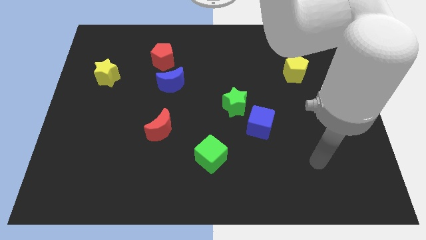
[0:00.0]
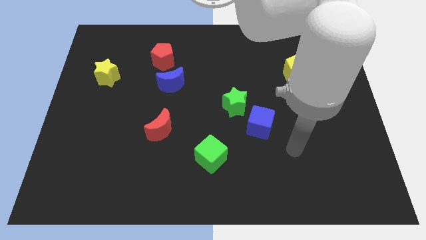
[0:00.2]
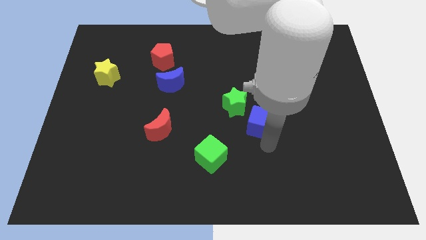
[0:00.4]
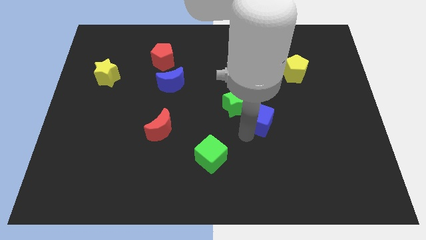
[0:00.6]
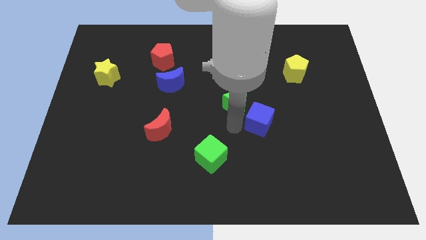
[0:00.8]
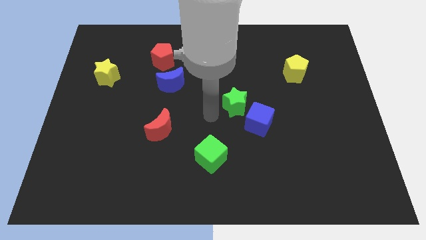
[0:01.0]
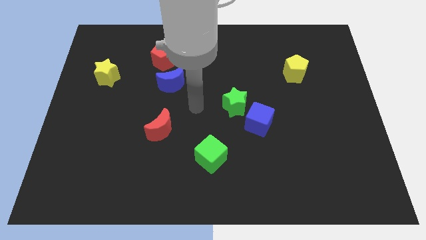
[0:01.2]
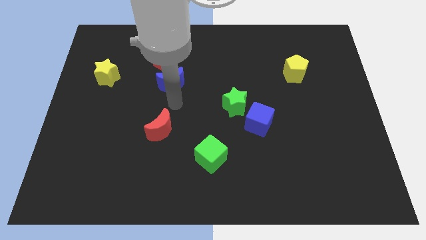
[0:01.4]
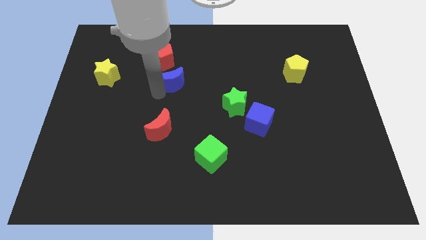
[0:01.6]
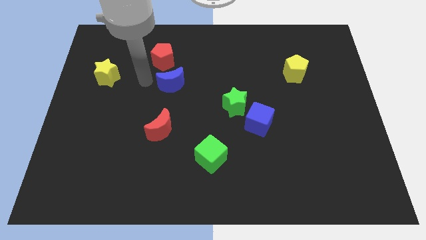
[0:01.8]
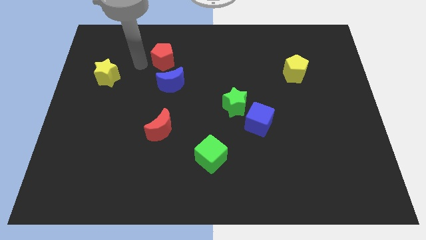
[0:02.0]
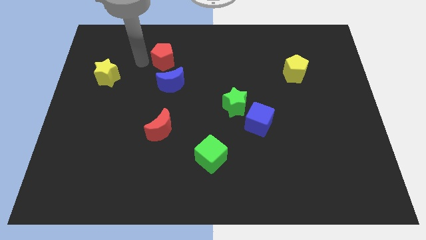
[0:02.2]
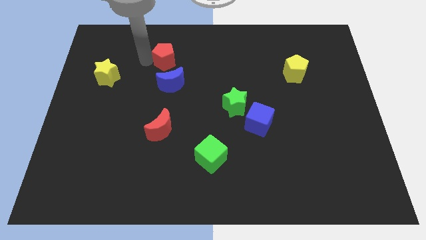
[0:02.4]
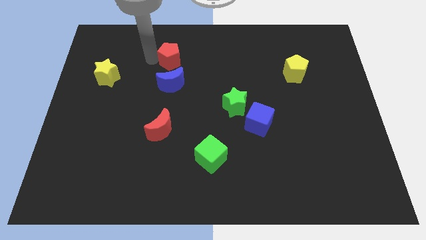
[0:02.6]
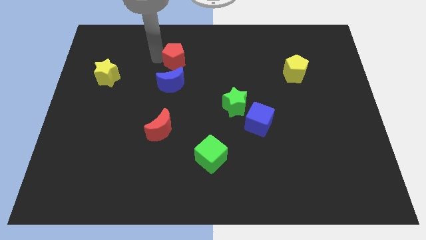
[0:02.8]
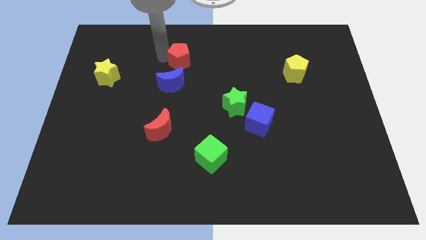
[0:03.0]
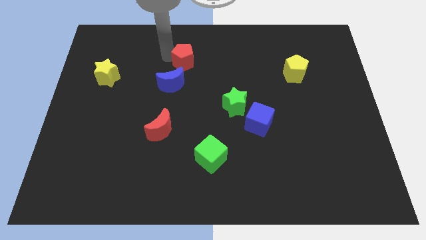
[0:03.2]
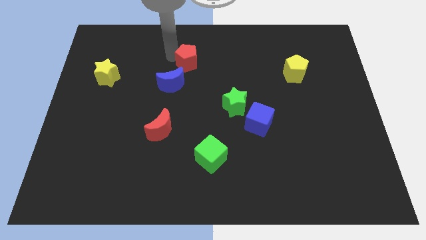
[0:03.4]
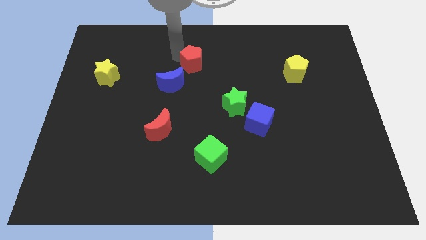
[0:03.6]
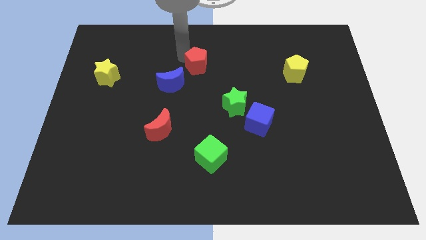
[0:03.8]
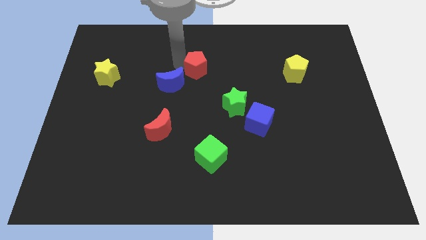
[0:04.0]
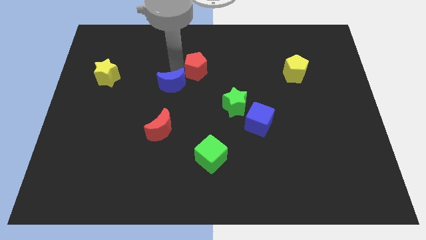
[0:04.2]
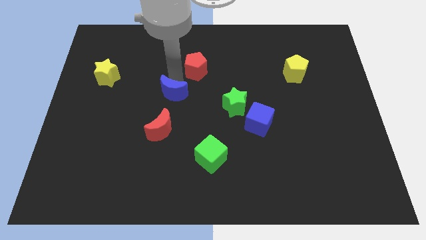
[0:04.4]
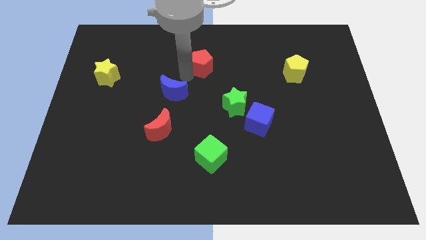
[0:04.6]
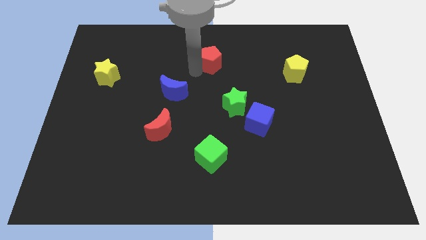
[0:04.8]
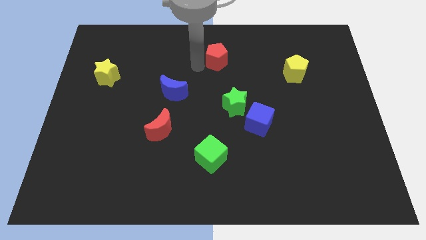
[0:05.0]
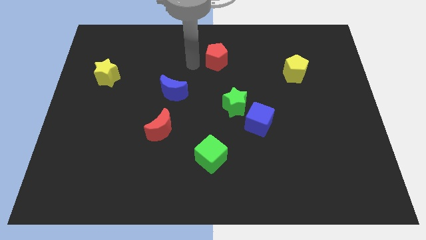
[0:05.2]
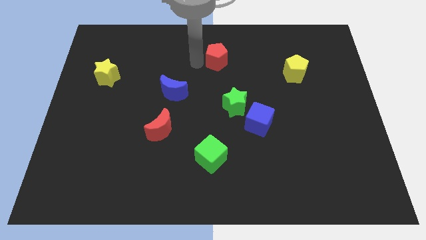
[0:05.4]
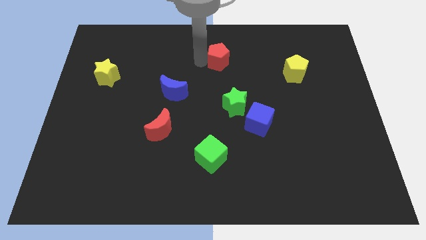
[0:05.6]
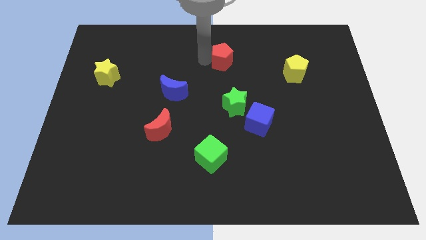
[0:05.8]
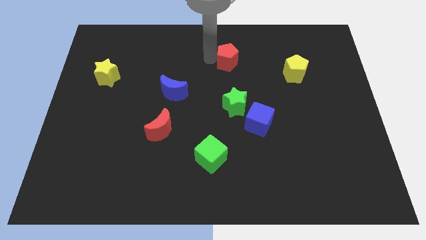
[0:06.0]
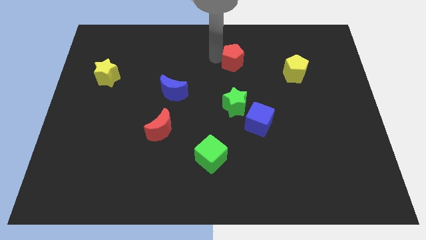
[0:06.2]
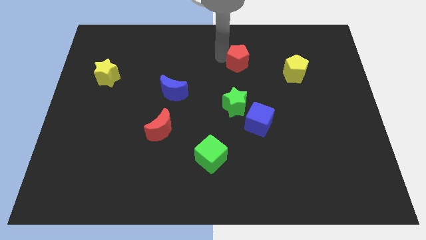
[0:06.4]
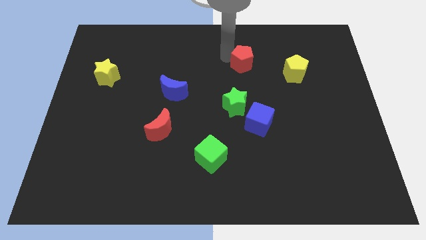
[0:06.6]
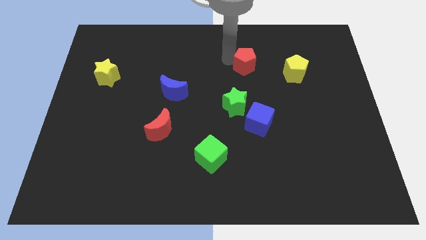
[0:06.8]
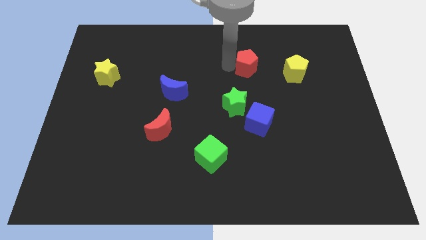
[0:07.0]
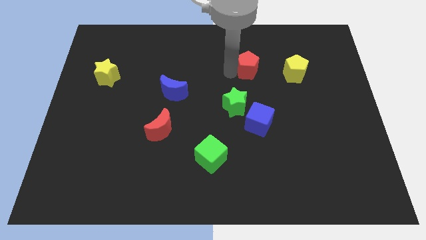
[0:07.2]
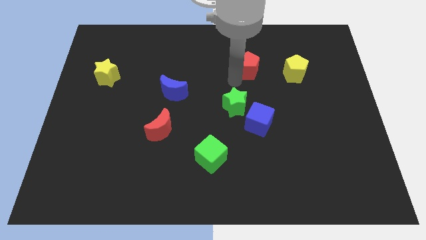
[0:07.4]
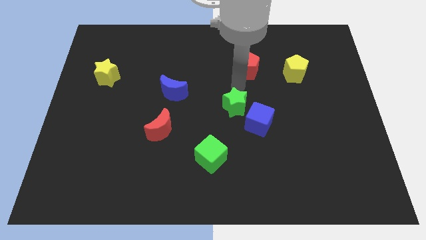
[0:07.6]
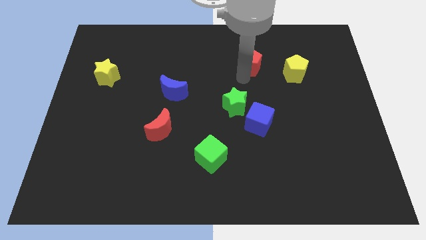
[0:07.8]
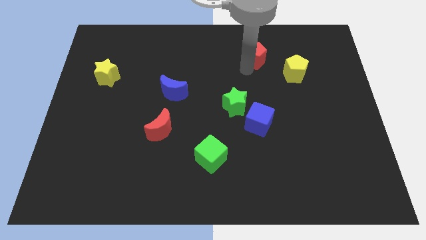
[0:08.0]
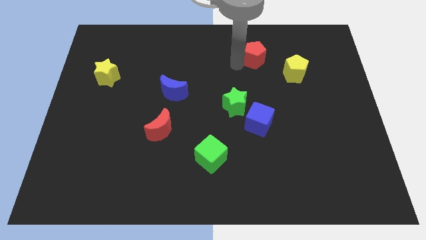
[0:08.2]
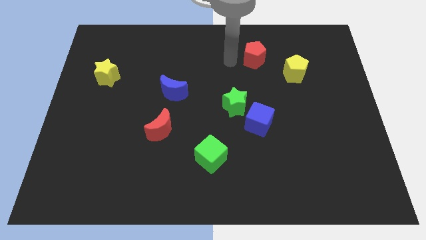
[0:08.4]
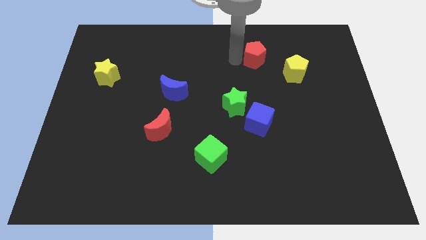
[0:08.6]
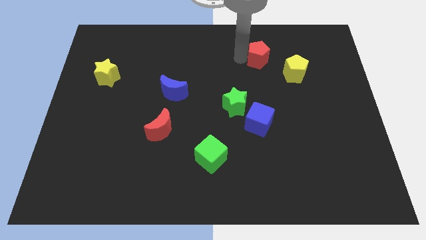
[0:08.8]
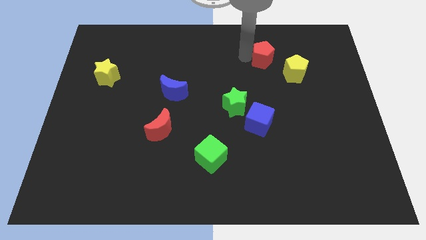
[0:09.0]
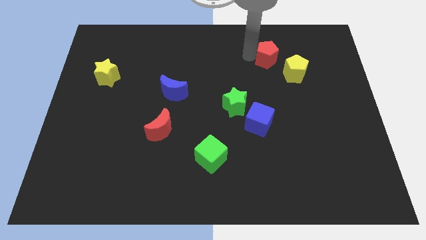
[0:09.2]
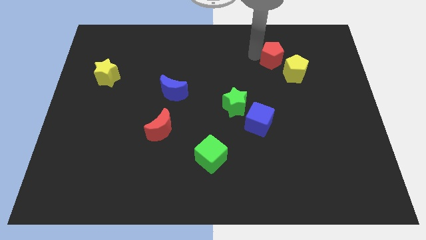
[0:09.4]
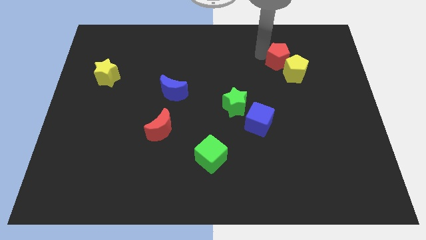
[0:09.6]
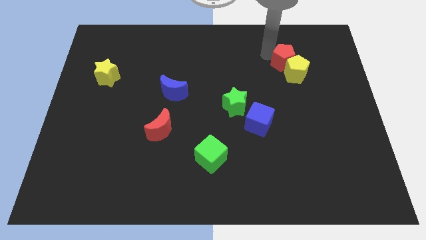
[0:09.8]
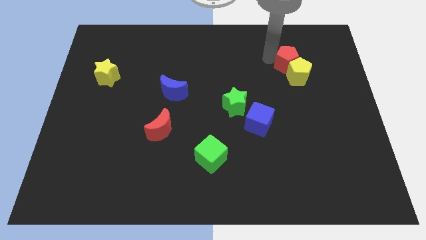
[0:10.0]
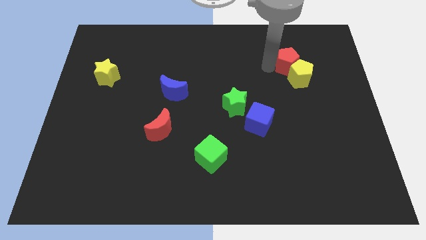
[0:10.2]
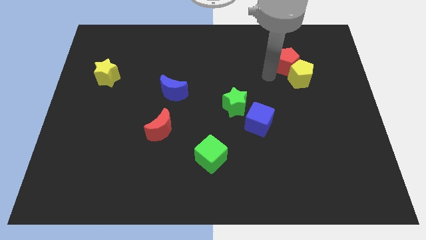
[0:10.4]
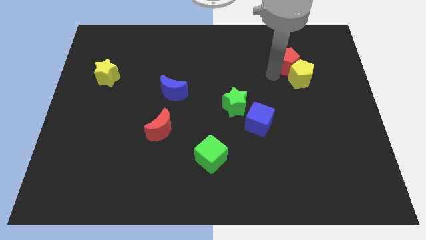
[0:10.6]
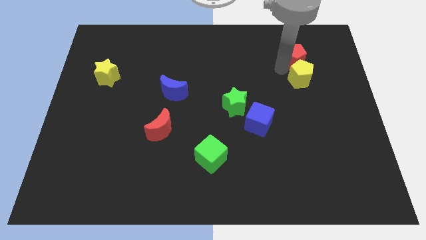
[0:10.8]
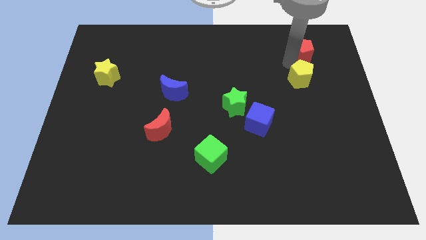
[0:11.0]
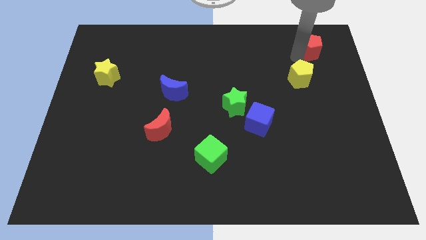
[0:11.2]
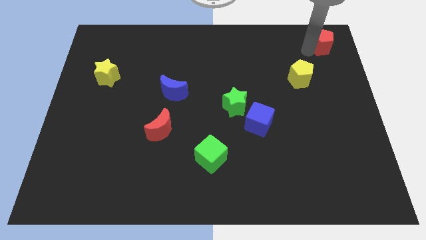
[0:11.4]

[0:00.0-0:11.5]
slide the red pentagon to the top right corner

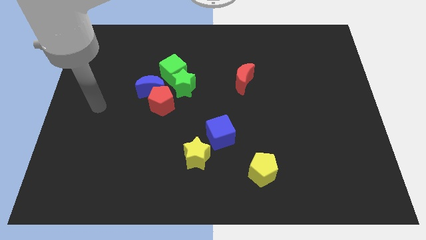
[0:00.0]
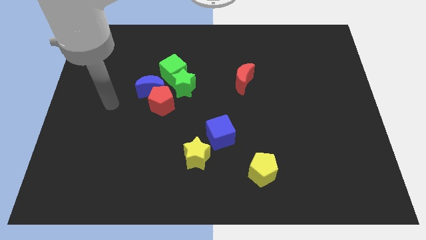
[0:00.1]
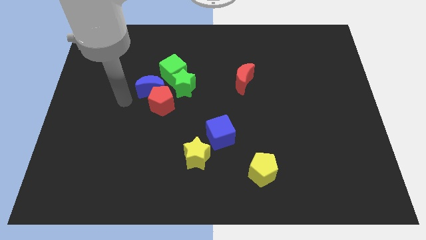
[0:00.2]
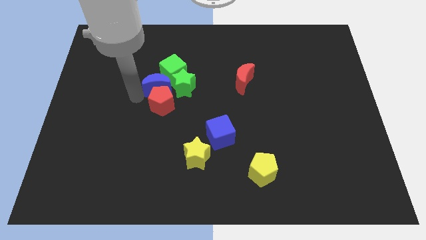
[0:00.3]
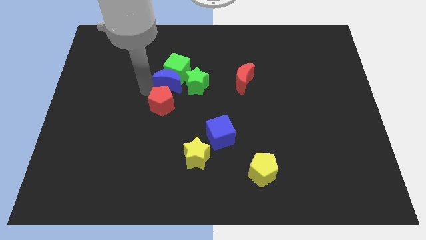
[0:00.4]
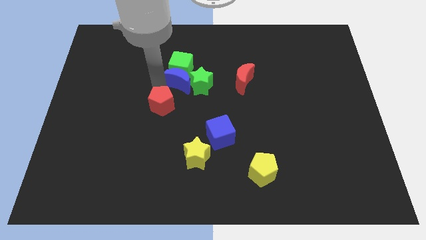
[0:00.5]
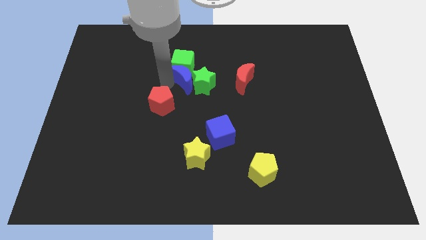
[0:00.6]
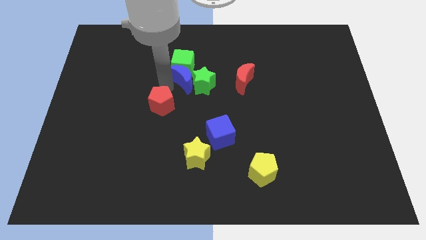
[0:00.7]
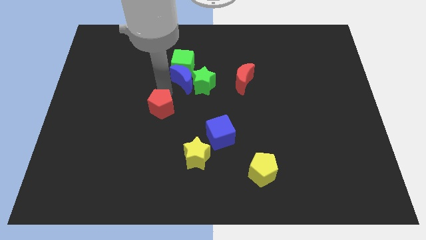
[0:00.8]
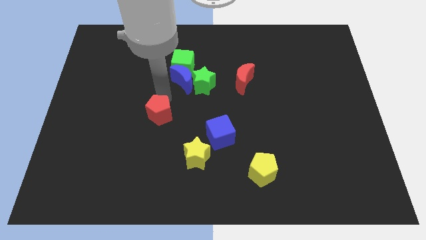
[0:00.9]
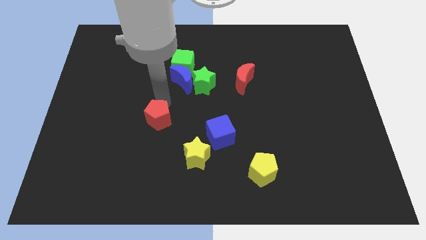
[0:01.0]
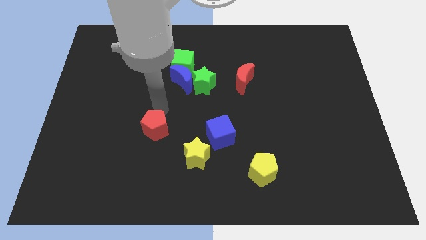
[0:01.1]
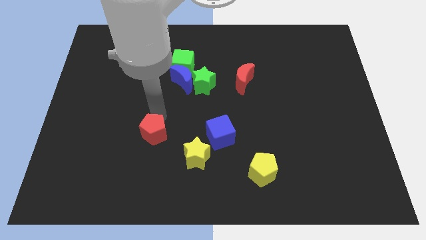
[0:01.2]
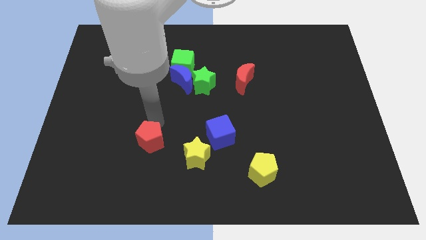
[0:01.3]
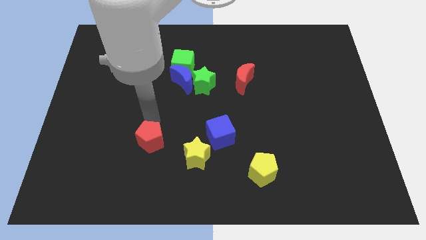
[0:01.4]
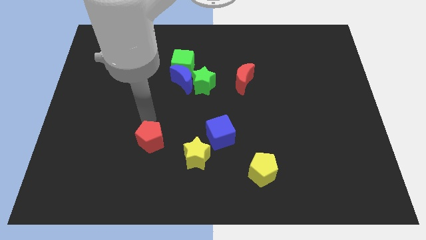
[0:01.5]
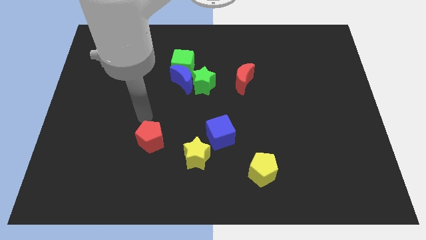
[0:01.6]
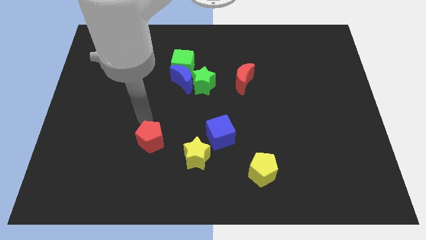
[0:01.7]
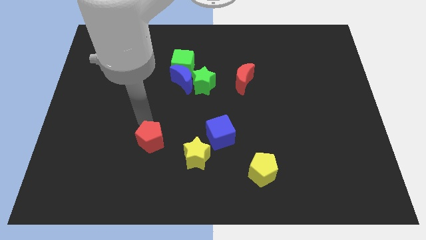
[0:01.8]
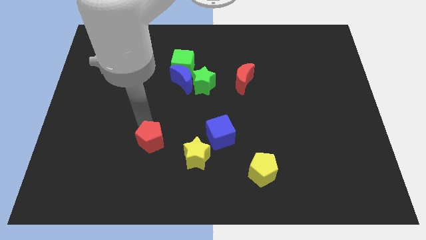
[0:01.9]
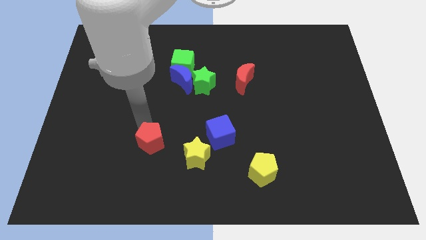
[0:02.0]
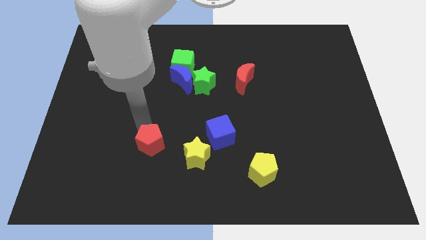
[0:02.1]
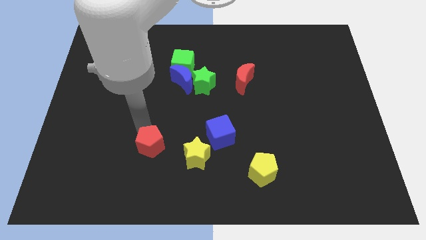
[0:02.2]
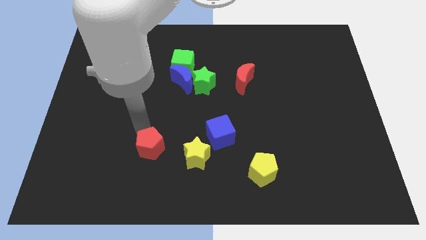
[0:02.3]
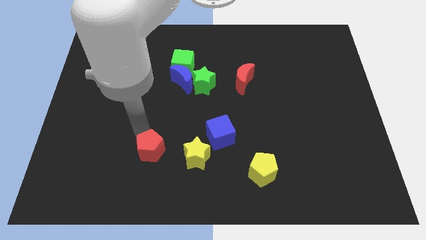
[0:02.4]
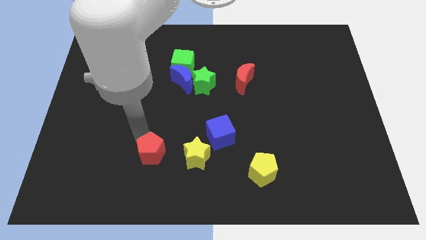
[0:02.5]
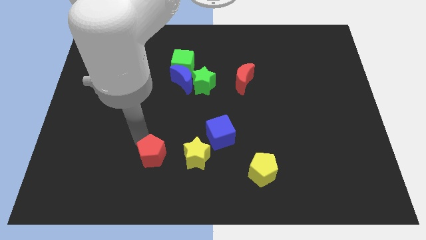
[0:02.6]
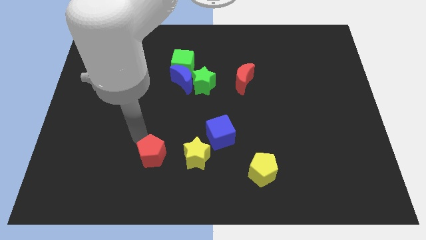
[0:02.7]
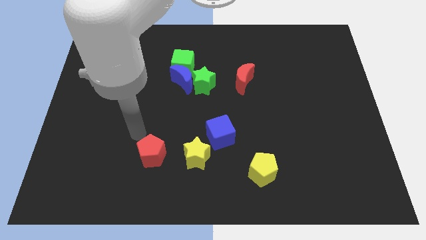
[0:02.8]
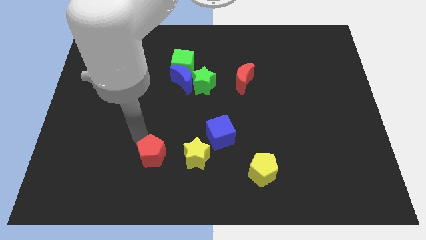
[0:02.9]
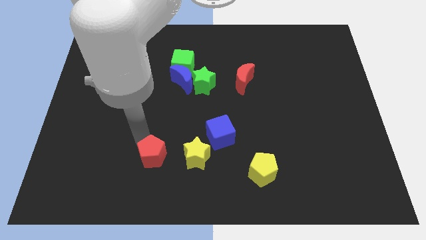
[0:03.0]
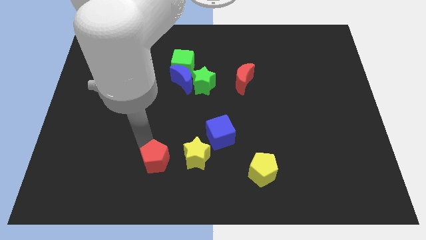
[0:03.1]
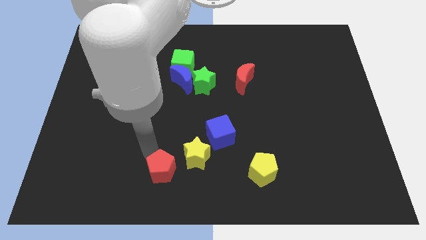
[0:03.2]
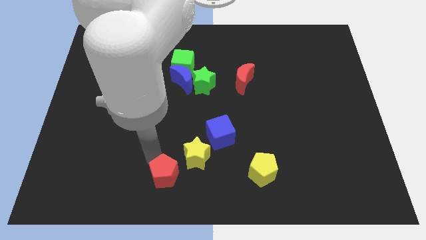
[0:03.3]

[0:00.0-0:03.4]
put the red pentagon to the bottom
